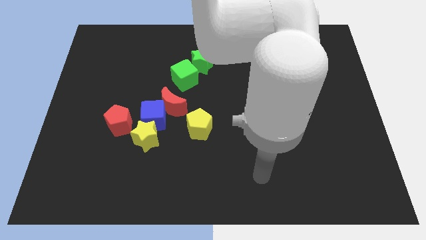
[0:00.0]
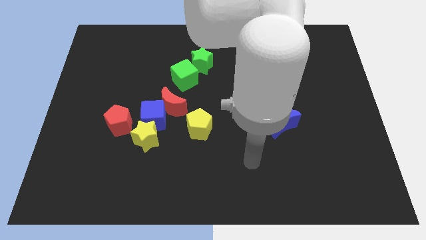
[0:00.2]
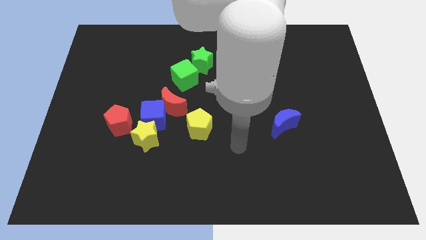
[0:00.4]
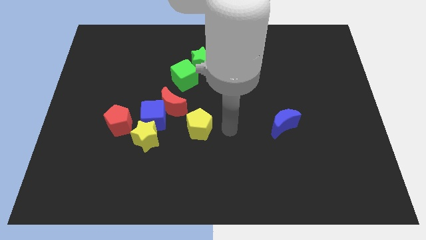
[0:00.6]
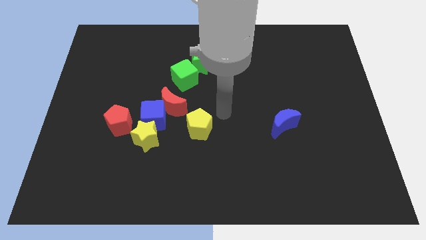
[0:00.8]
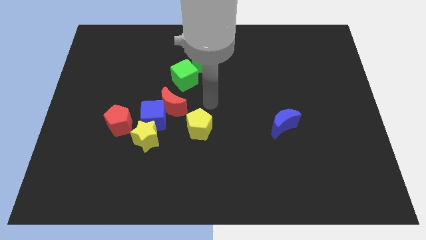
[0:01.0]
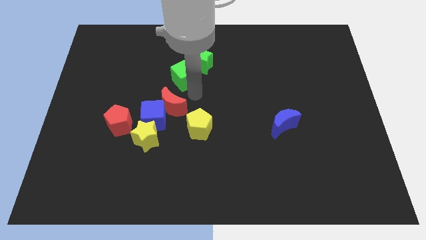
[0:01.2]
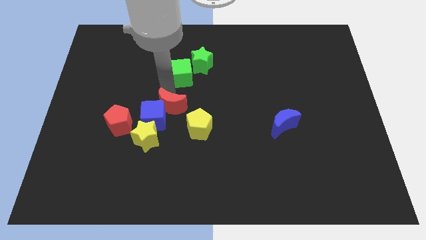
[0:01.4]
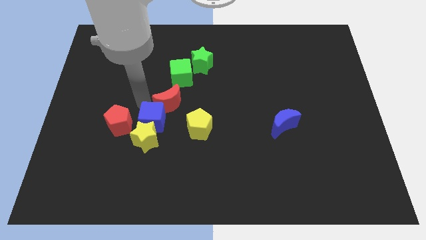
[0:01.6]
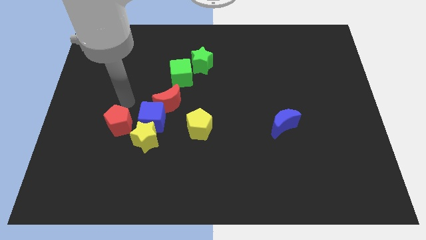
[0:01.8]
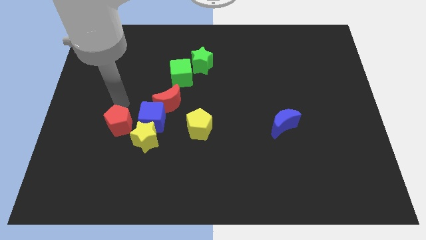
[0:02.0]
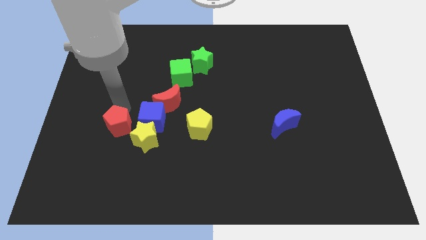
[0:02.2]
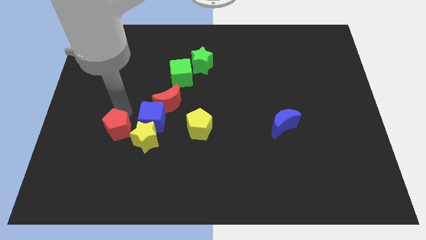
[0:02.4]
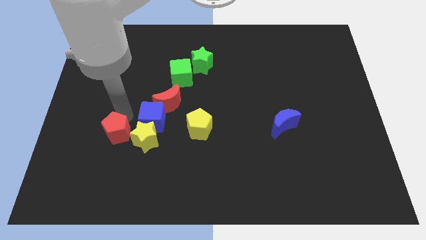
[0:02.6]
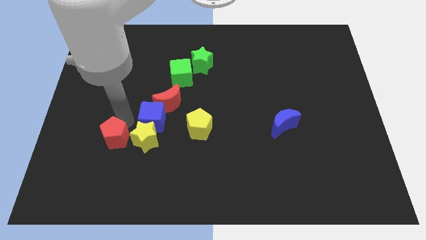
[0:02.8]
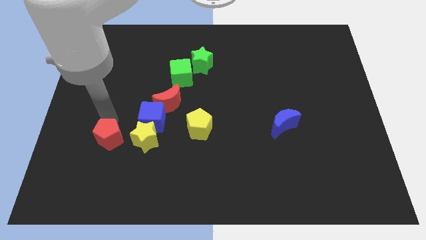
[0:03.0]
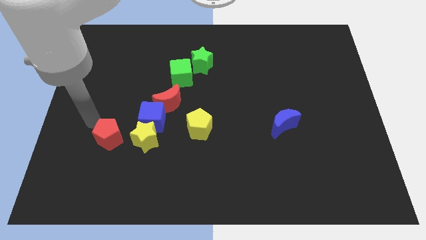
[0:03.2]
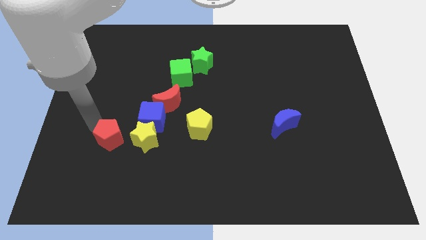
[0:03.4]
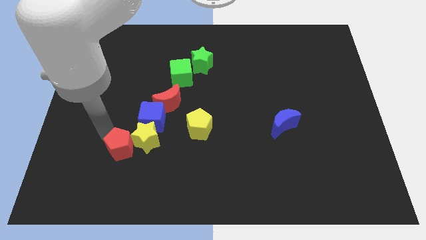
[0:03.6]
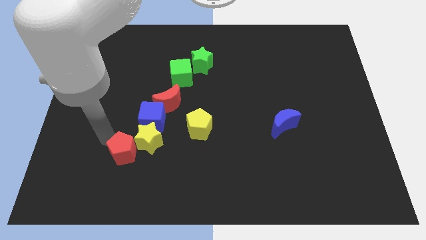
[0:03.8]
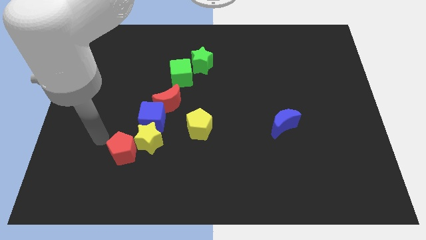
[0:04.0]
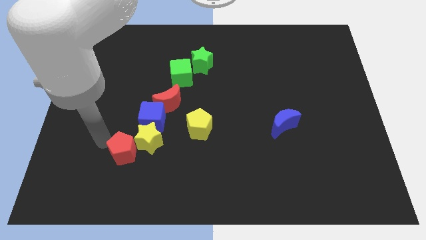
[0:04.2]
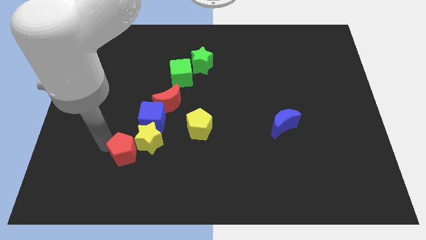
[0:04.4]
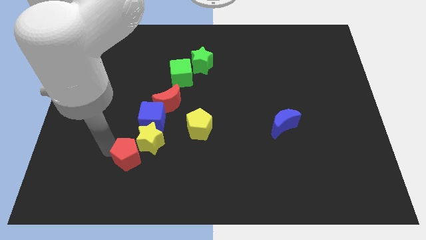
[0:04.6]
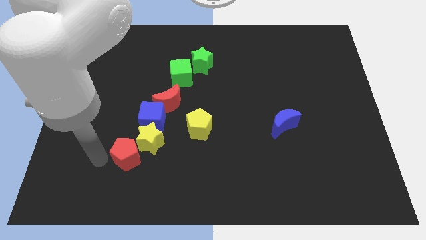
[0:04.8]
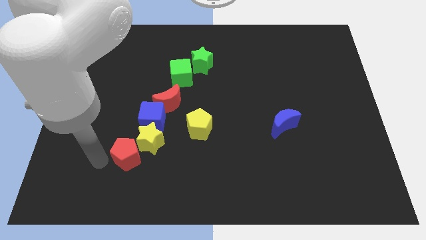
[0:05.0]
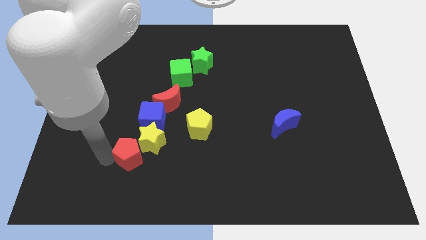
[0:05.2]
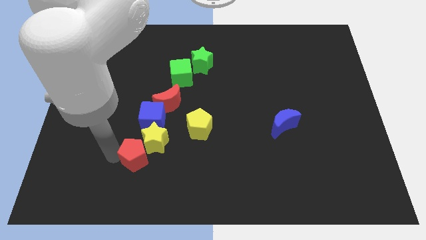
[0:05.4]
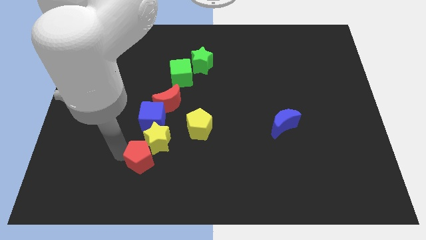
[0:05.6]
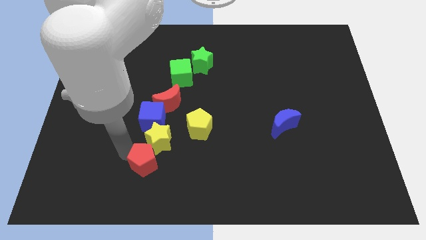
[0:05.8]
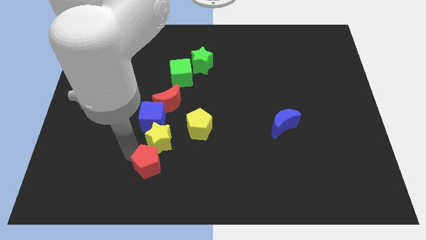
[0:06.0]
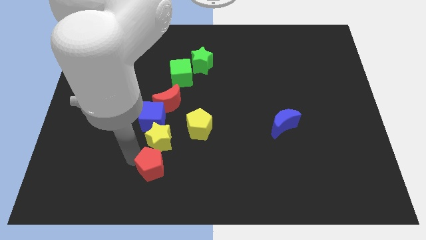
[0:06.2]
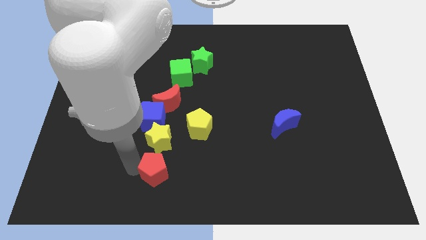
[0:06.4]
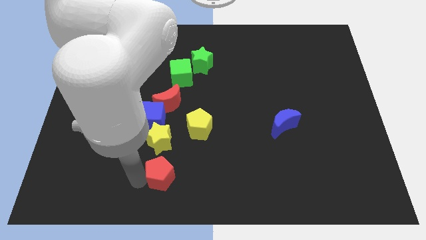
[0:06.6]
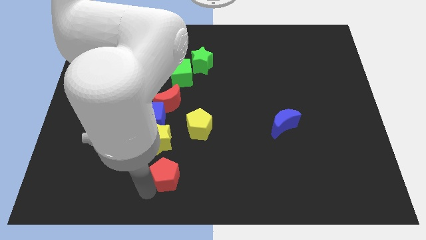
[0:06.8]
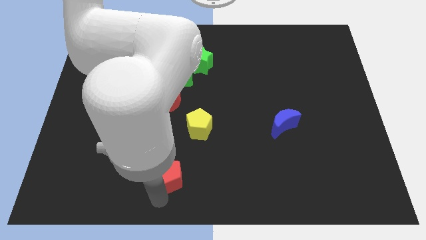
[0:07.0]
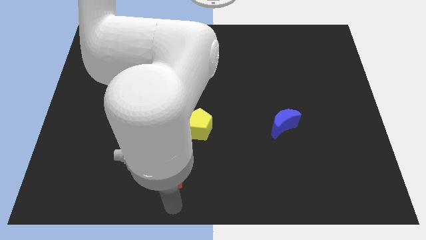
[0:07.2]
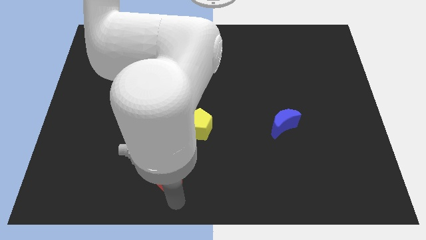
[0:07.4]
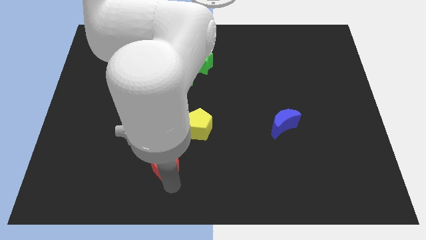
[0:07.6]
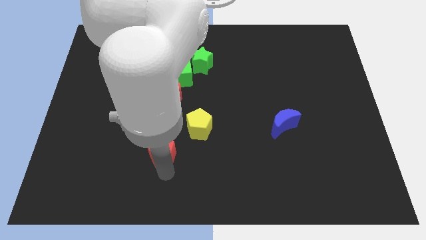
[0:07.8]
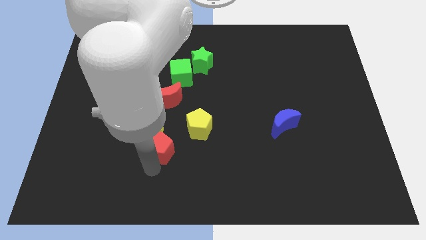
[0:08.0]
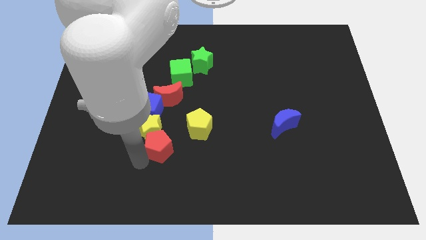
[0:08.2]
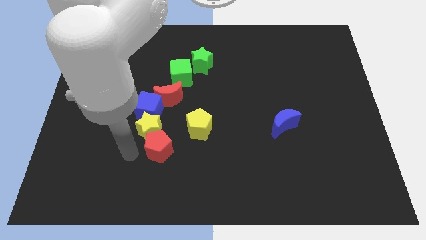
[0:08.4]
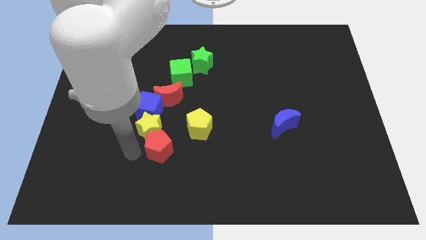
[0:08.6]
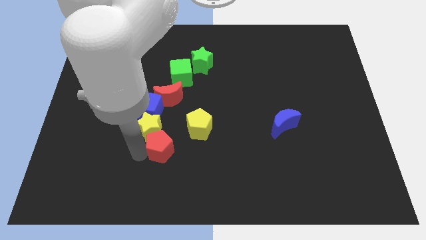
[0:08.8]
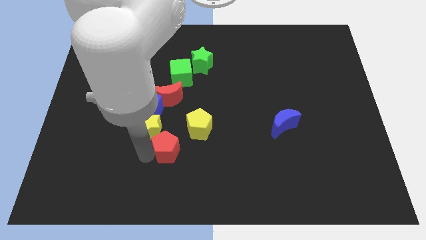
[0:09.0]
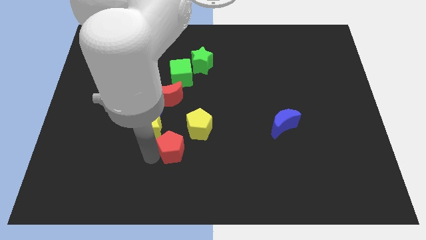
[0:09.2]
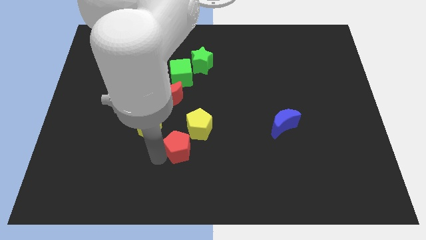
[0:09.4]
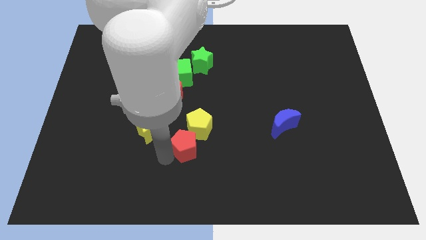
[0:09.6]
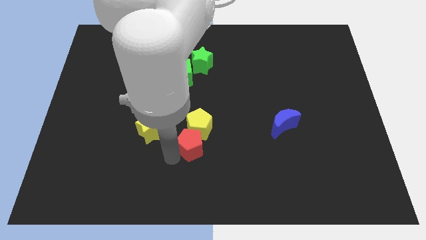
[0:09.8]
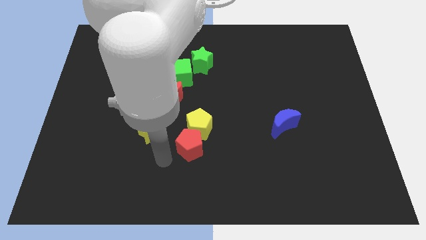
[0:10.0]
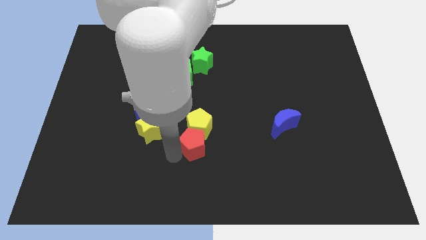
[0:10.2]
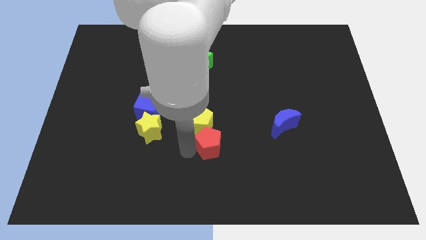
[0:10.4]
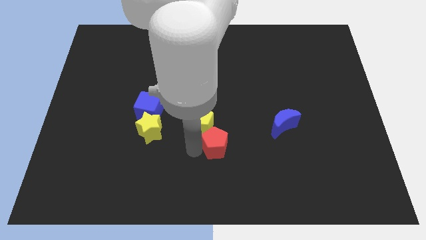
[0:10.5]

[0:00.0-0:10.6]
slide the red pentagon to the right

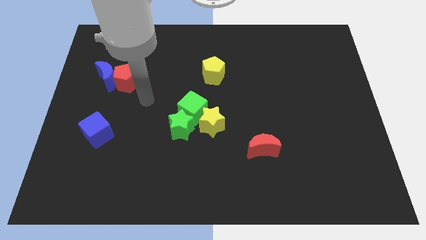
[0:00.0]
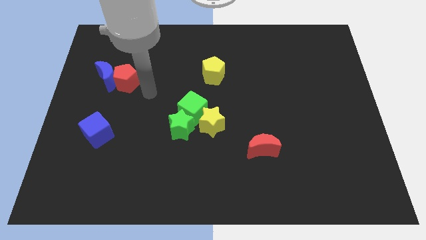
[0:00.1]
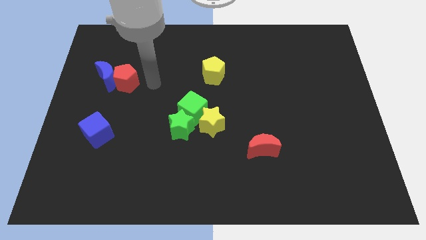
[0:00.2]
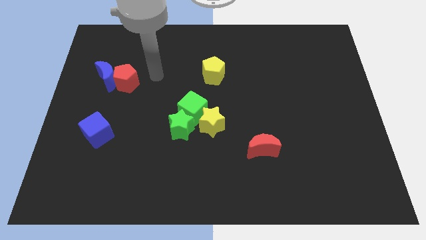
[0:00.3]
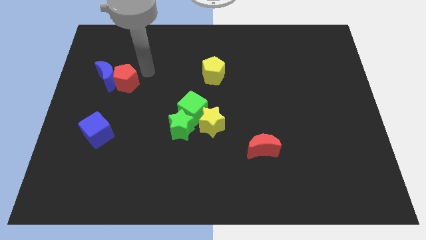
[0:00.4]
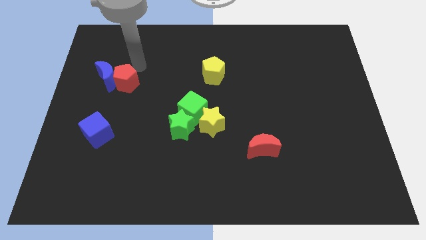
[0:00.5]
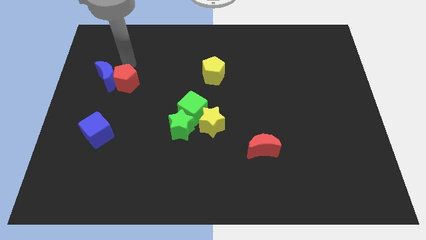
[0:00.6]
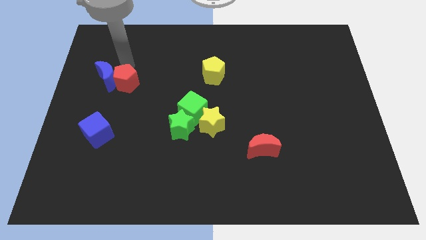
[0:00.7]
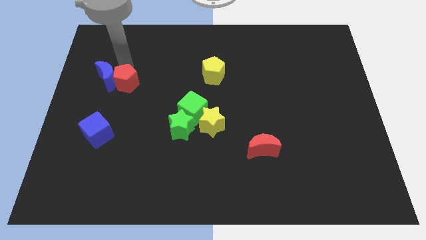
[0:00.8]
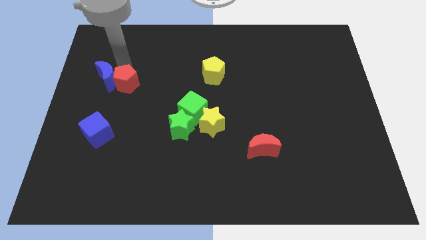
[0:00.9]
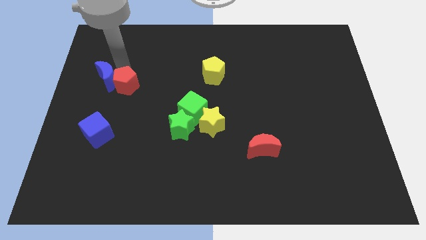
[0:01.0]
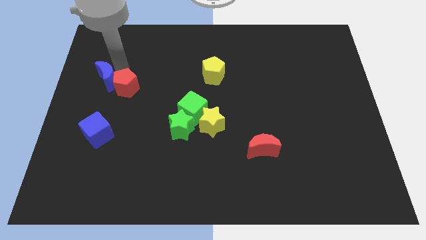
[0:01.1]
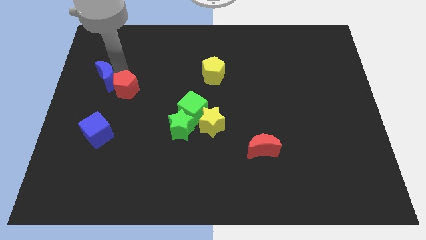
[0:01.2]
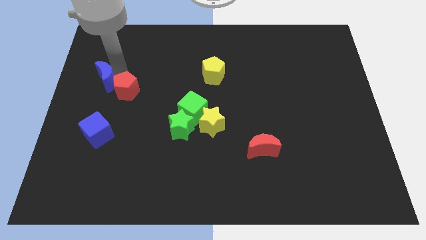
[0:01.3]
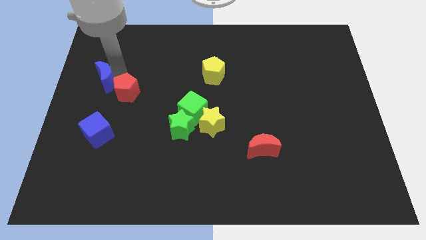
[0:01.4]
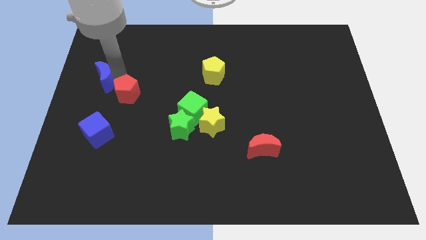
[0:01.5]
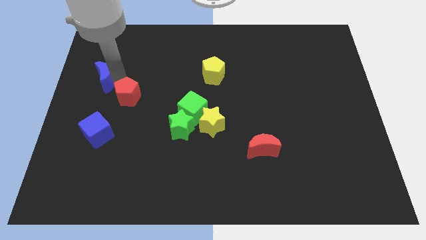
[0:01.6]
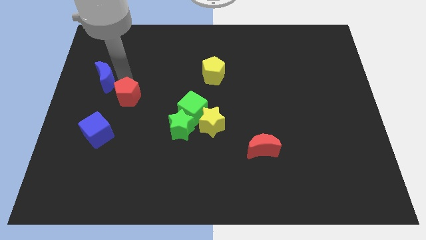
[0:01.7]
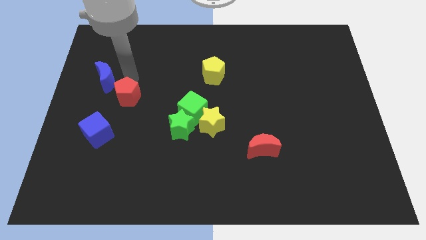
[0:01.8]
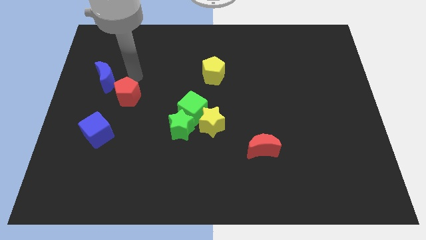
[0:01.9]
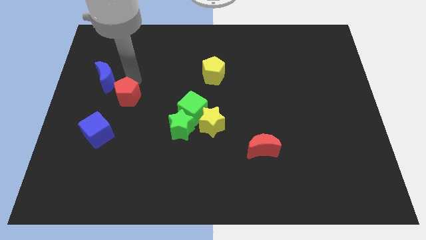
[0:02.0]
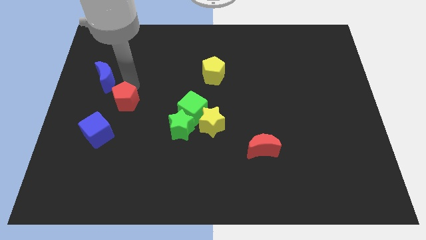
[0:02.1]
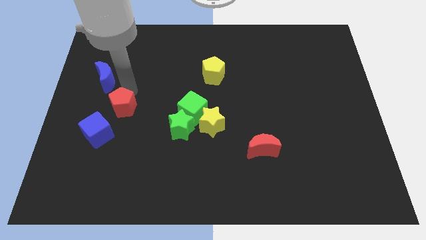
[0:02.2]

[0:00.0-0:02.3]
move the red pentagon downwards a little bit

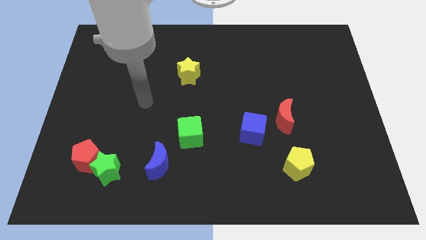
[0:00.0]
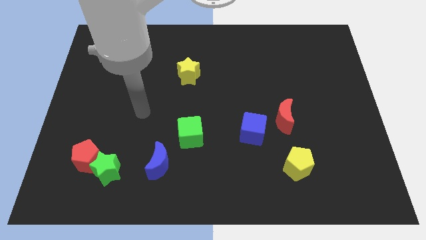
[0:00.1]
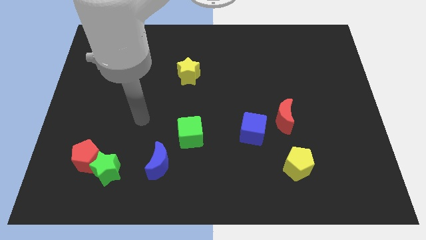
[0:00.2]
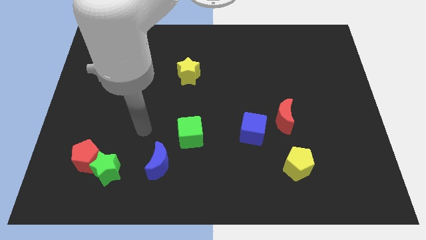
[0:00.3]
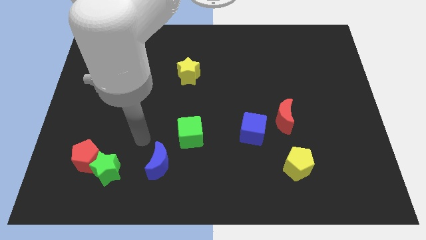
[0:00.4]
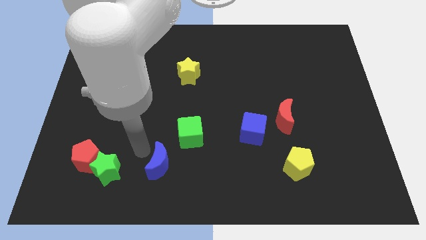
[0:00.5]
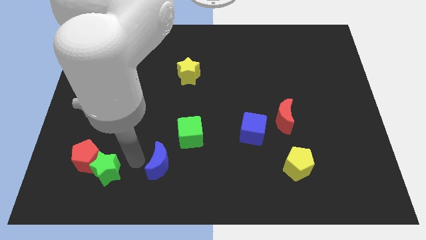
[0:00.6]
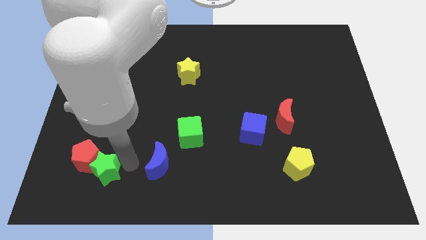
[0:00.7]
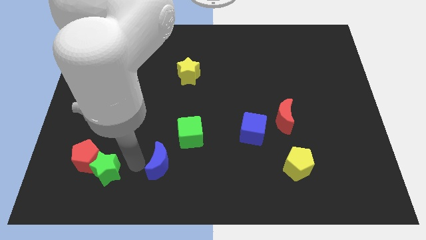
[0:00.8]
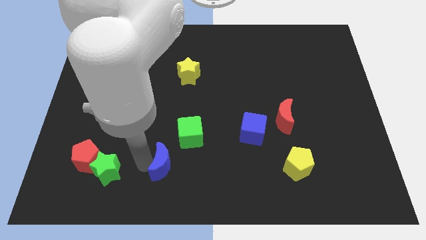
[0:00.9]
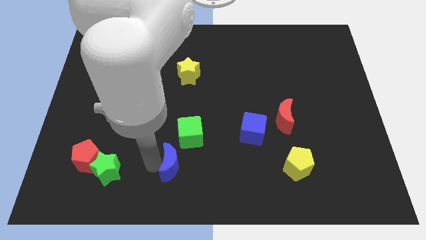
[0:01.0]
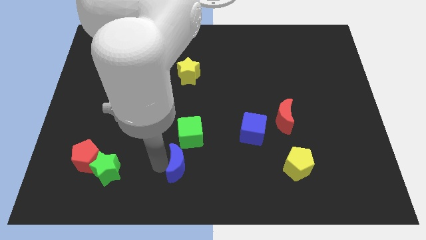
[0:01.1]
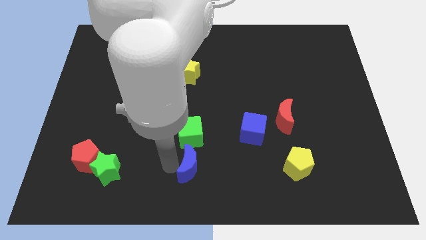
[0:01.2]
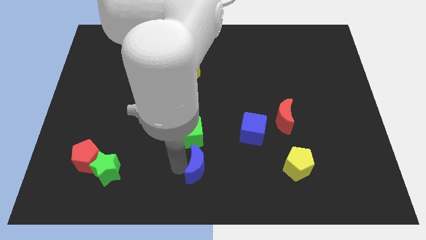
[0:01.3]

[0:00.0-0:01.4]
move the blue moon a bit right
